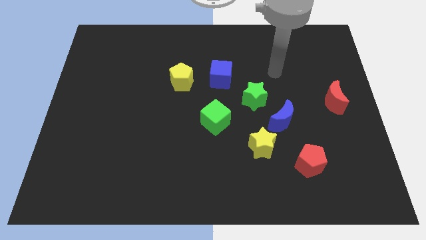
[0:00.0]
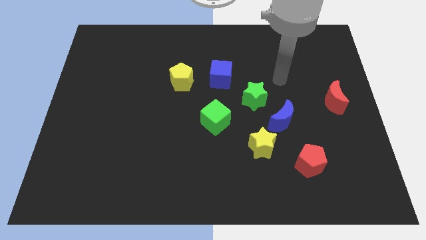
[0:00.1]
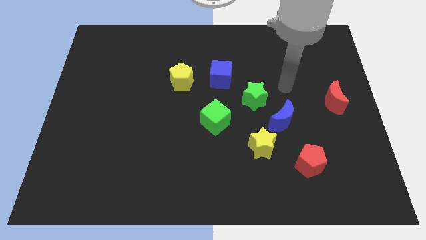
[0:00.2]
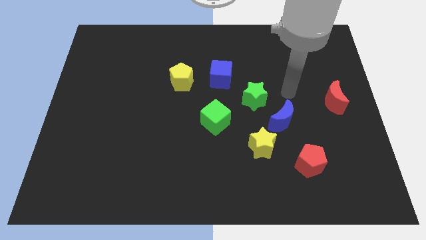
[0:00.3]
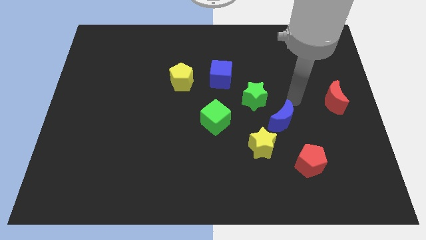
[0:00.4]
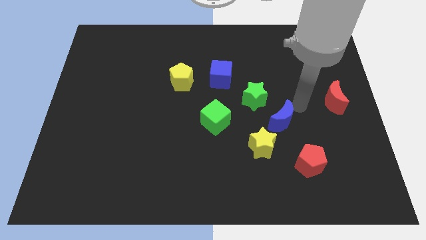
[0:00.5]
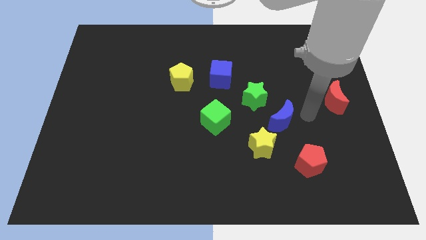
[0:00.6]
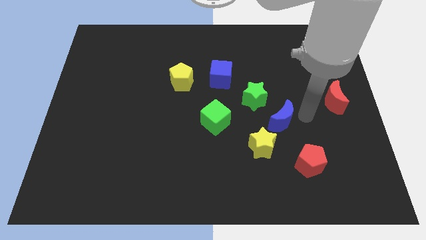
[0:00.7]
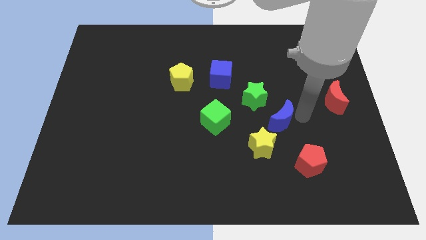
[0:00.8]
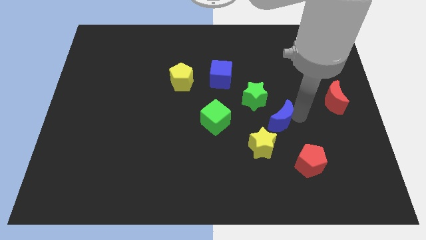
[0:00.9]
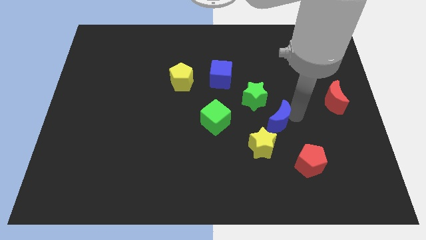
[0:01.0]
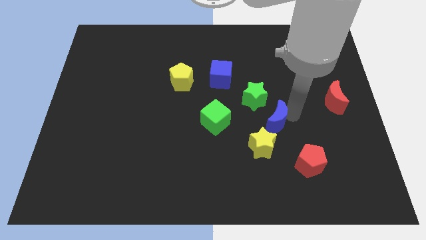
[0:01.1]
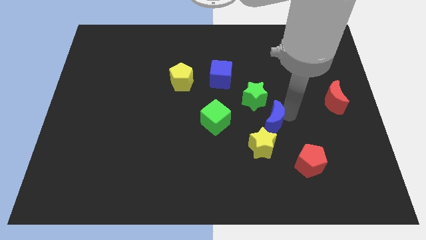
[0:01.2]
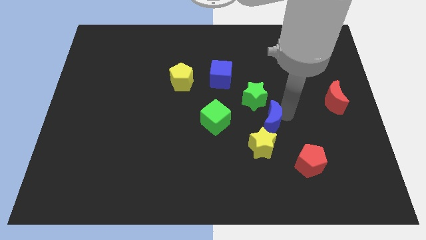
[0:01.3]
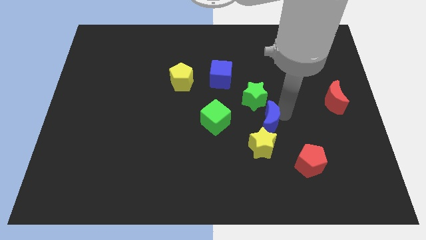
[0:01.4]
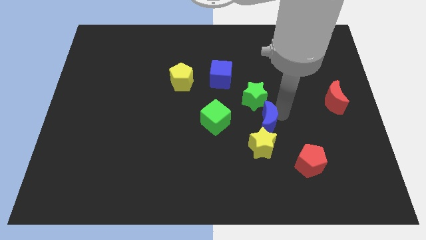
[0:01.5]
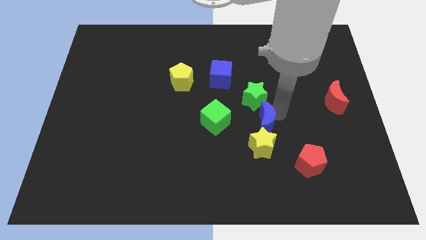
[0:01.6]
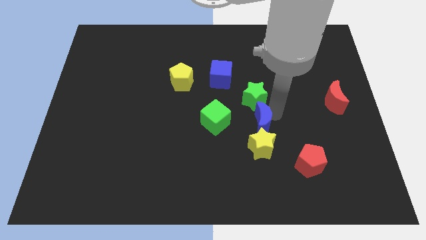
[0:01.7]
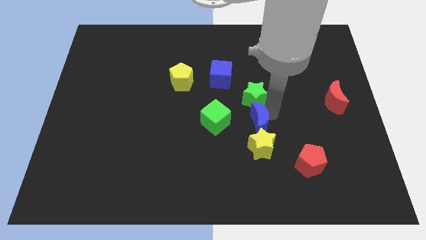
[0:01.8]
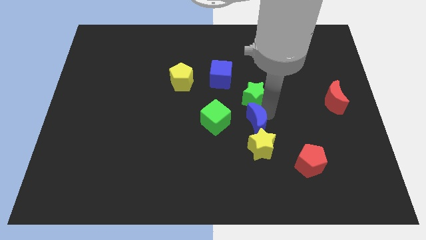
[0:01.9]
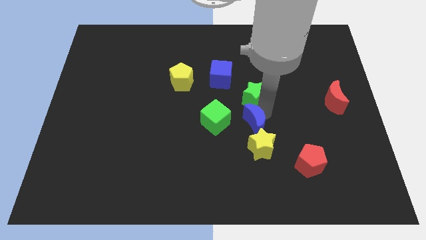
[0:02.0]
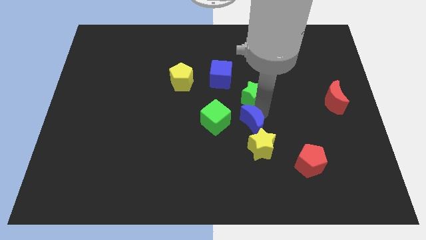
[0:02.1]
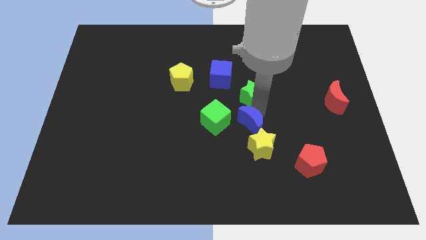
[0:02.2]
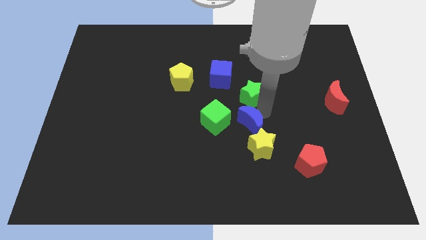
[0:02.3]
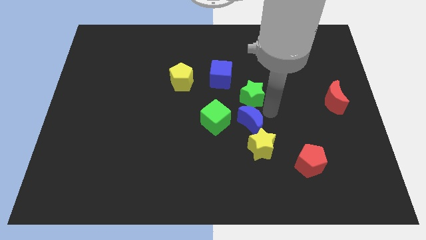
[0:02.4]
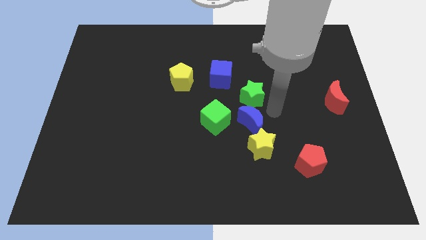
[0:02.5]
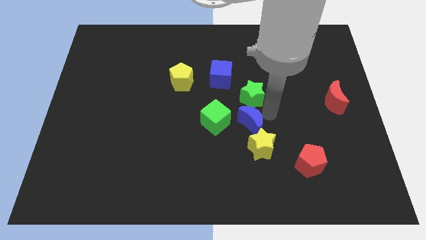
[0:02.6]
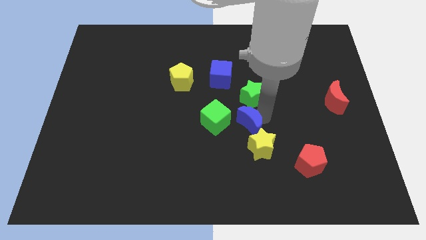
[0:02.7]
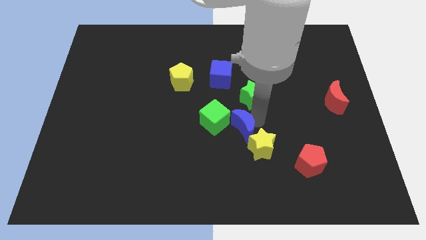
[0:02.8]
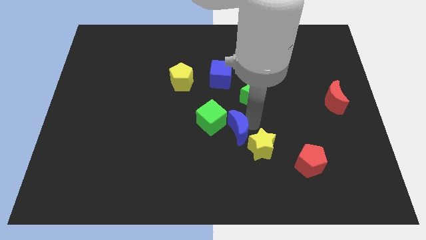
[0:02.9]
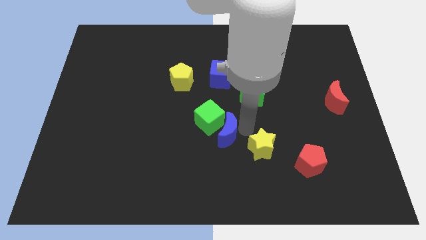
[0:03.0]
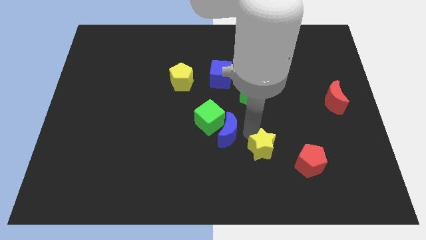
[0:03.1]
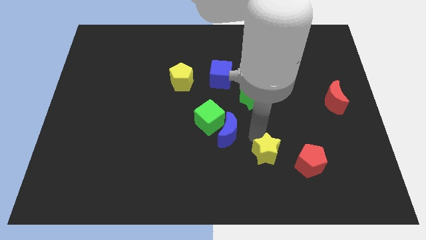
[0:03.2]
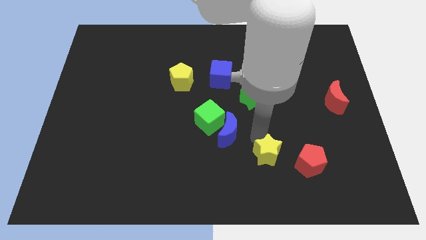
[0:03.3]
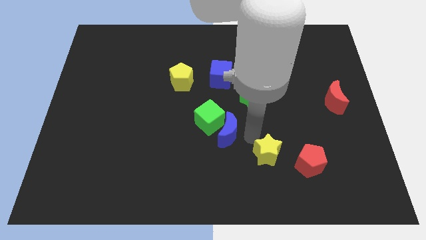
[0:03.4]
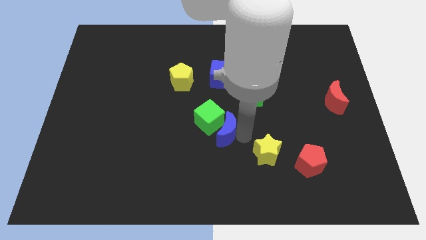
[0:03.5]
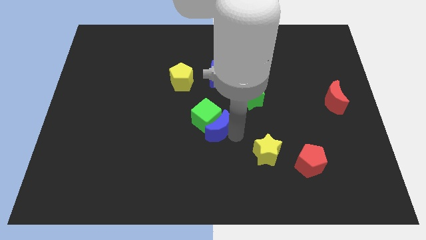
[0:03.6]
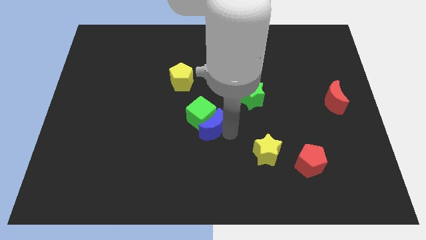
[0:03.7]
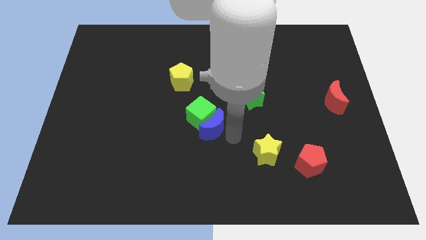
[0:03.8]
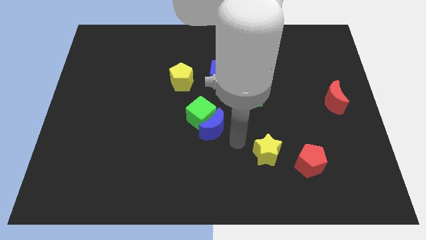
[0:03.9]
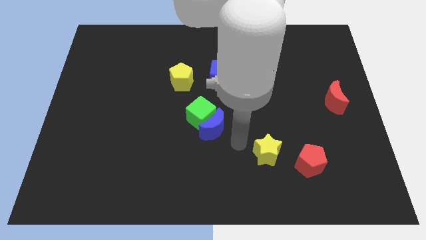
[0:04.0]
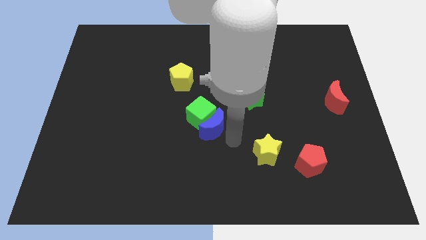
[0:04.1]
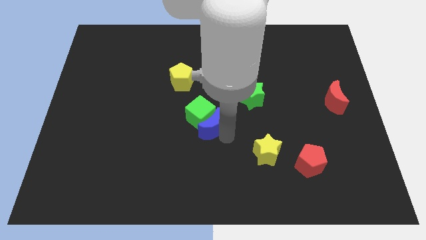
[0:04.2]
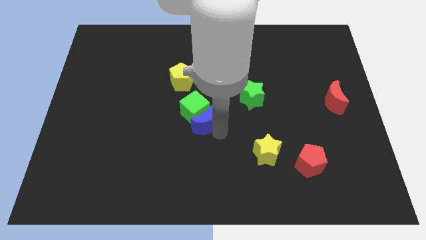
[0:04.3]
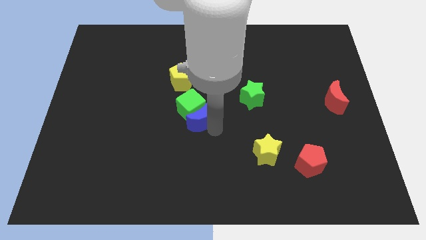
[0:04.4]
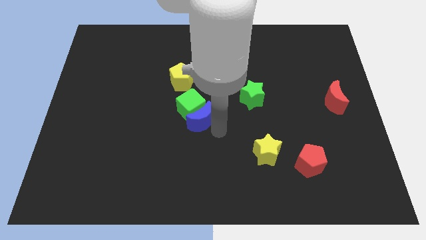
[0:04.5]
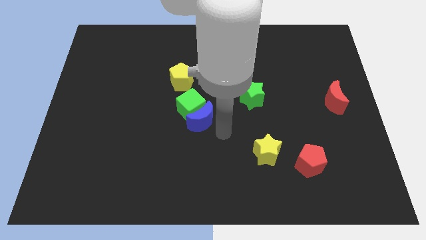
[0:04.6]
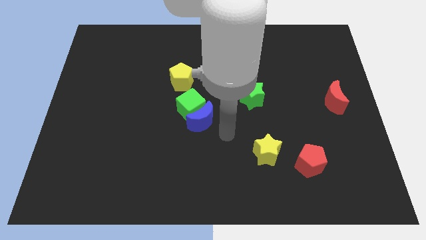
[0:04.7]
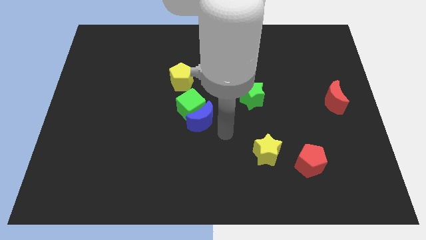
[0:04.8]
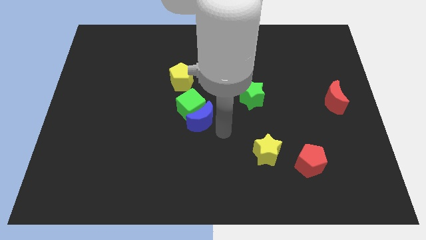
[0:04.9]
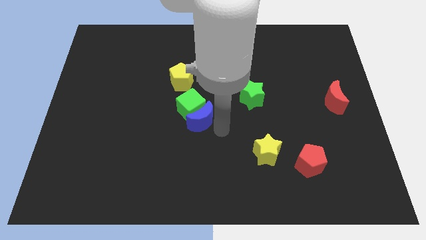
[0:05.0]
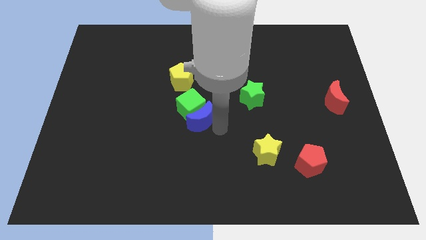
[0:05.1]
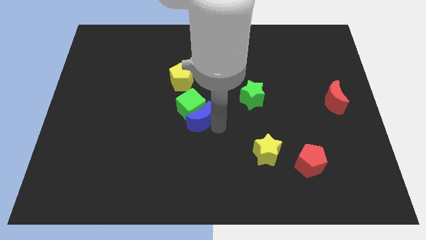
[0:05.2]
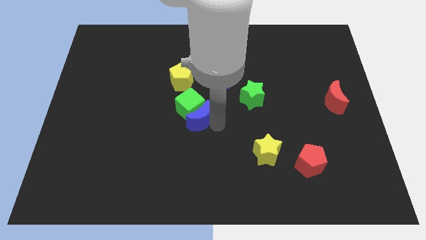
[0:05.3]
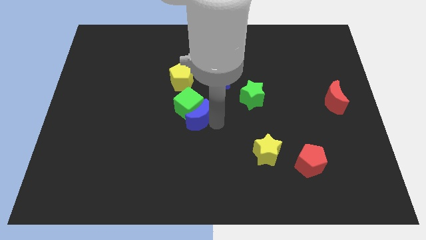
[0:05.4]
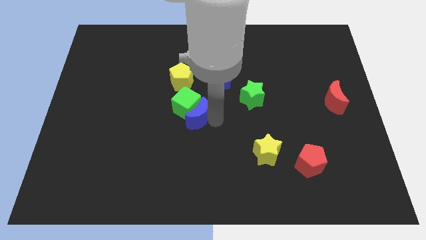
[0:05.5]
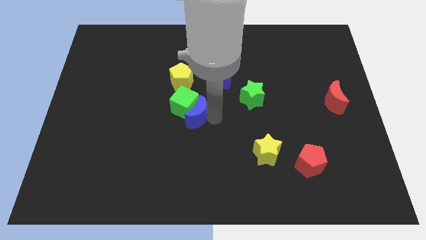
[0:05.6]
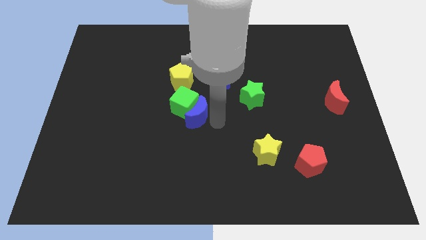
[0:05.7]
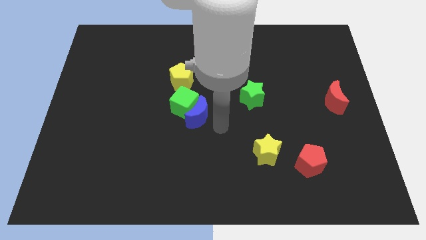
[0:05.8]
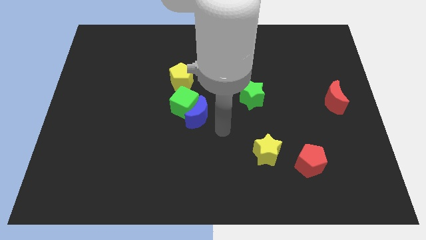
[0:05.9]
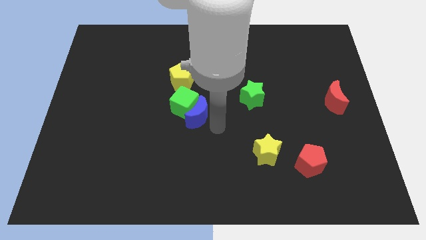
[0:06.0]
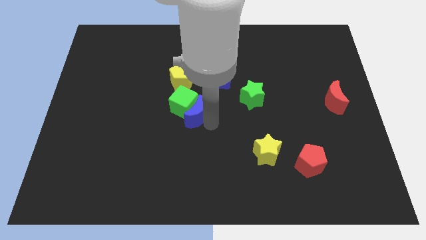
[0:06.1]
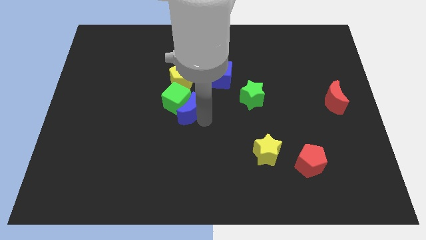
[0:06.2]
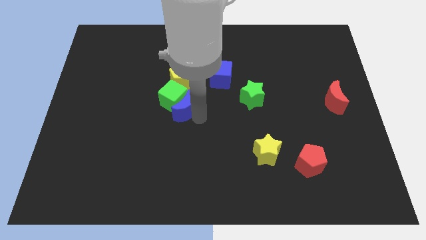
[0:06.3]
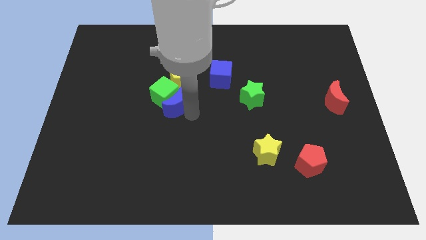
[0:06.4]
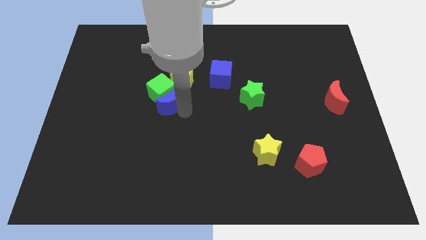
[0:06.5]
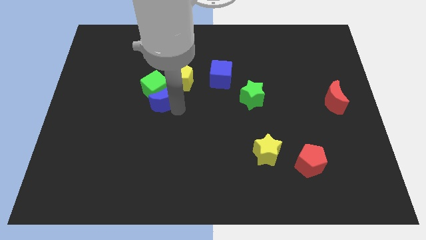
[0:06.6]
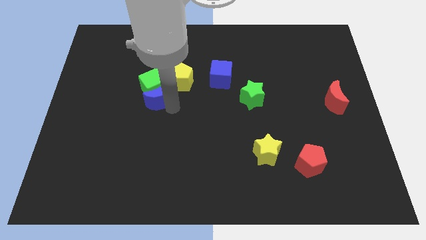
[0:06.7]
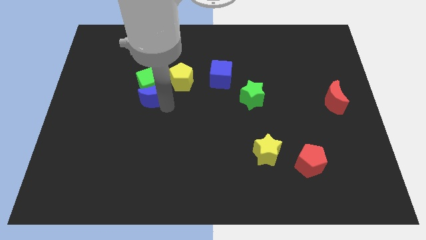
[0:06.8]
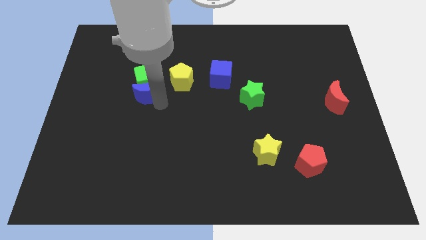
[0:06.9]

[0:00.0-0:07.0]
move the blue moon just left of the yellow pentagon

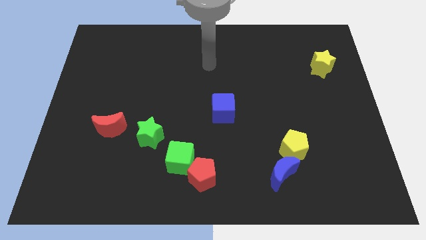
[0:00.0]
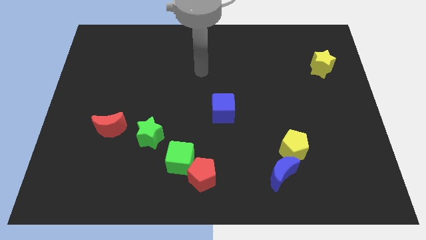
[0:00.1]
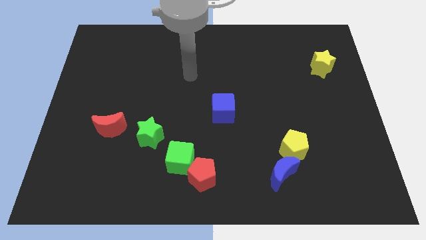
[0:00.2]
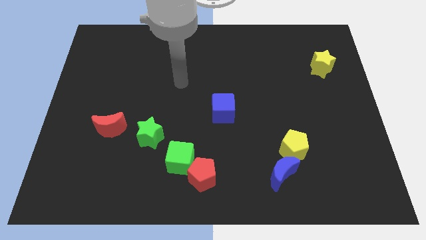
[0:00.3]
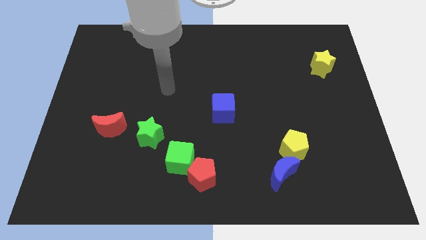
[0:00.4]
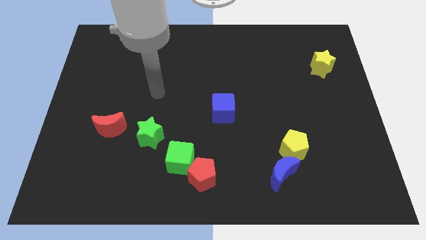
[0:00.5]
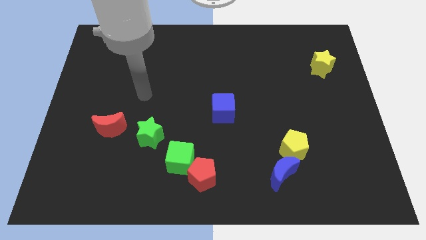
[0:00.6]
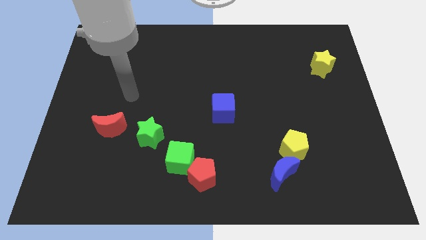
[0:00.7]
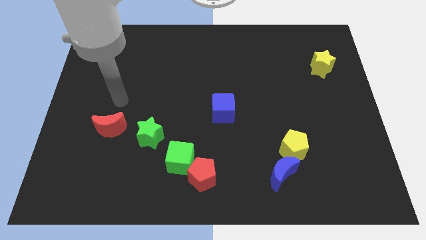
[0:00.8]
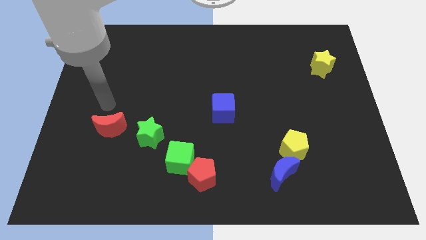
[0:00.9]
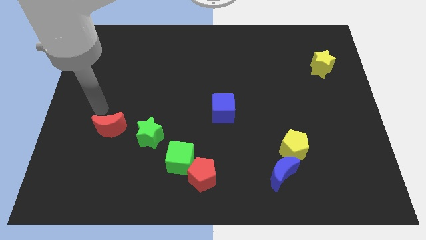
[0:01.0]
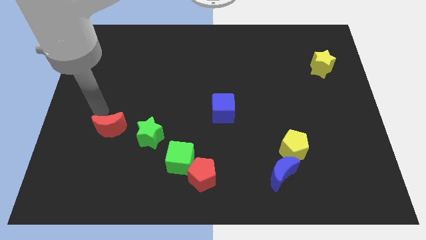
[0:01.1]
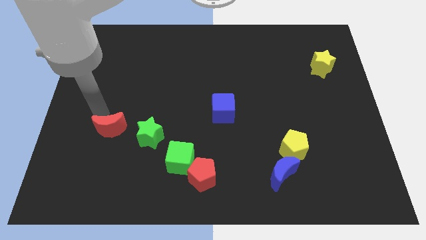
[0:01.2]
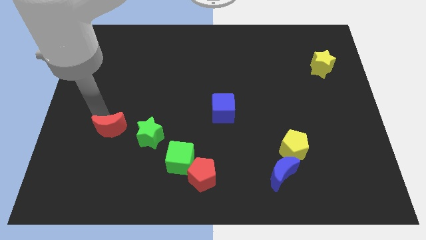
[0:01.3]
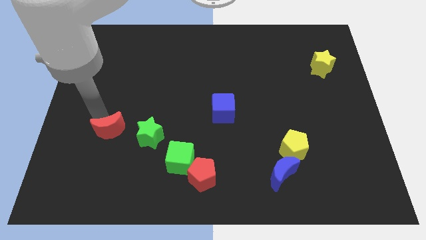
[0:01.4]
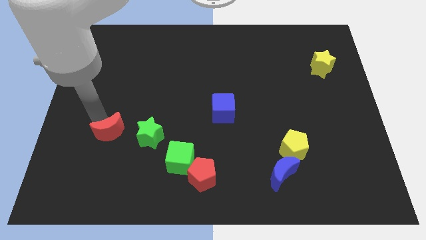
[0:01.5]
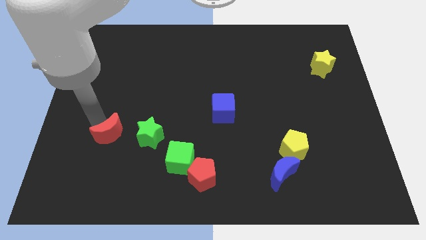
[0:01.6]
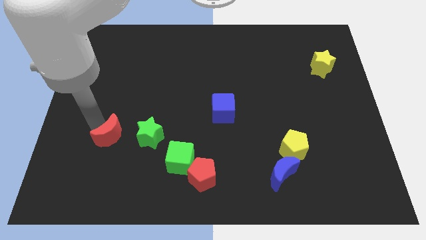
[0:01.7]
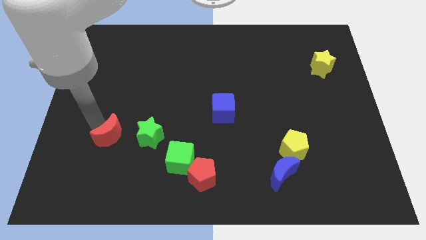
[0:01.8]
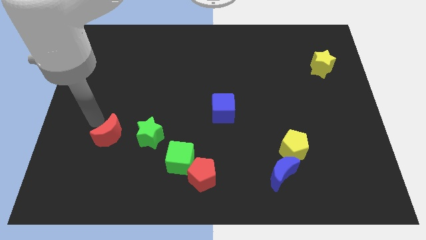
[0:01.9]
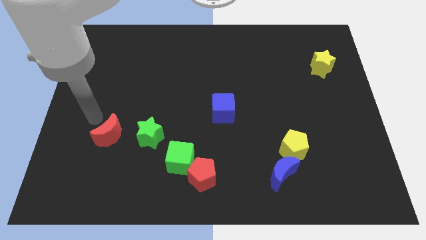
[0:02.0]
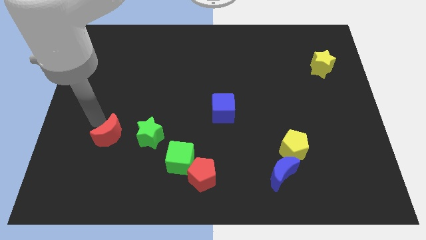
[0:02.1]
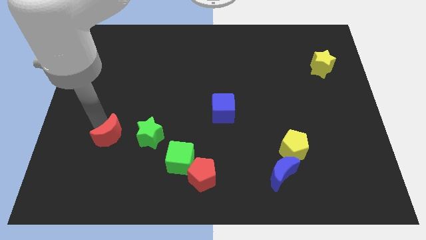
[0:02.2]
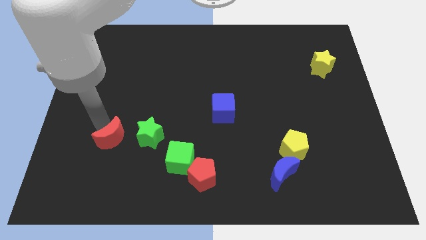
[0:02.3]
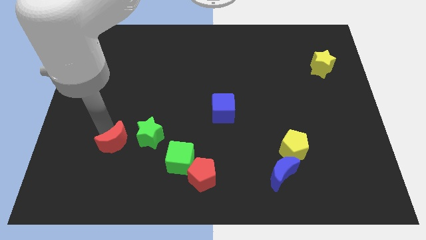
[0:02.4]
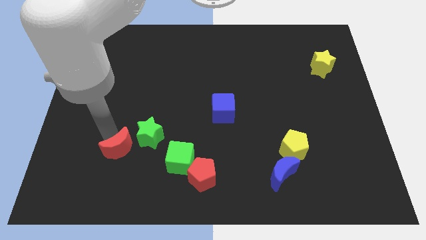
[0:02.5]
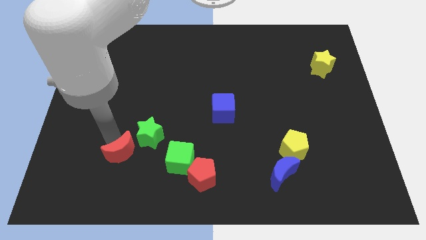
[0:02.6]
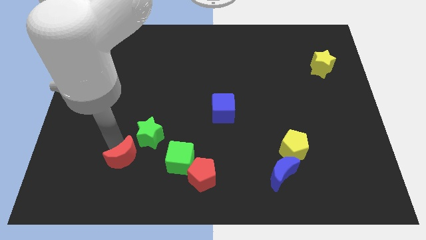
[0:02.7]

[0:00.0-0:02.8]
slide the red moon to the bottom side of the green star
